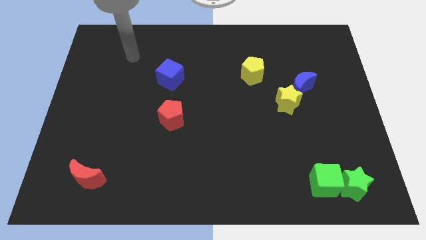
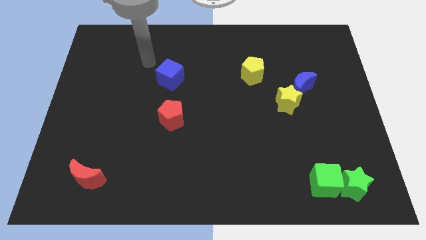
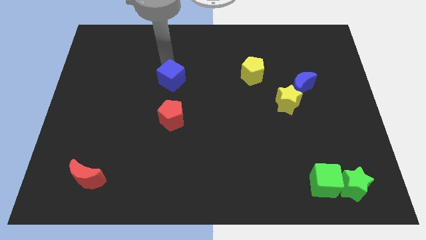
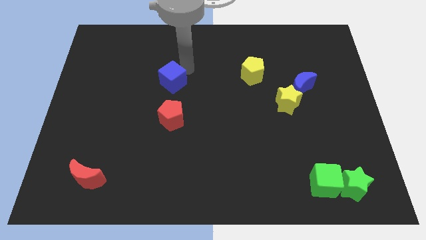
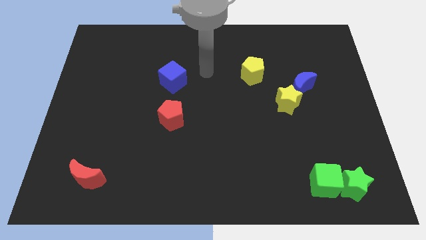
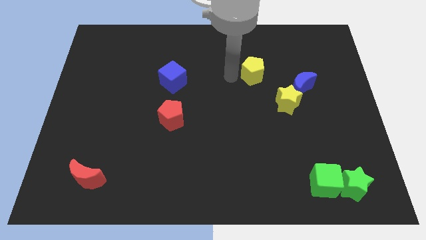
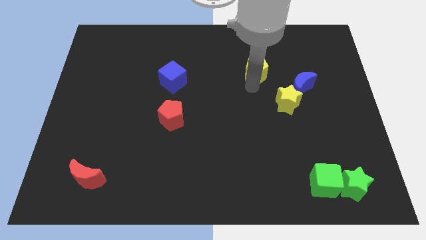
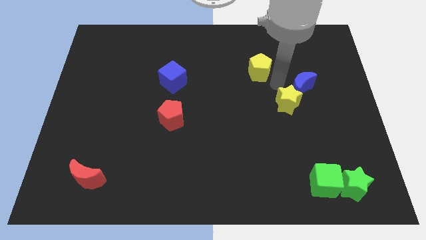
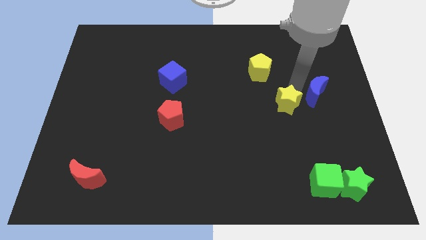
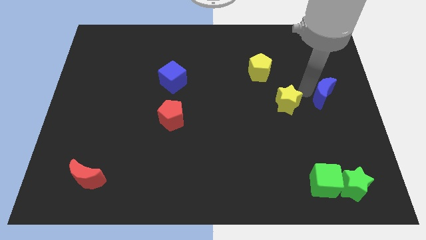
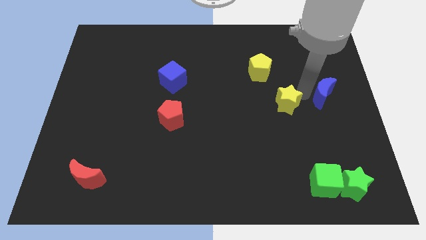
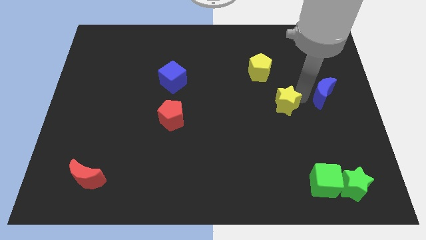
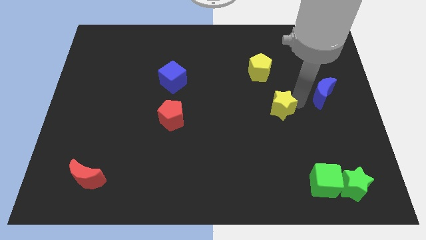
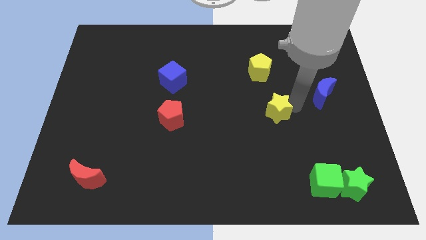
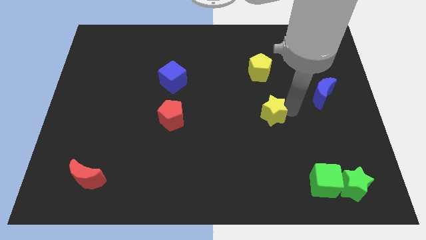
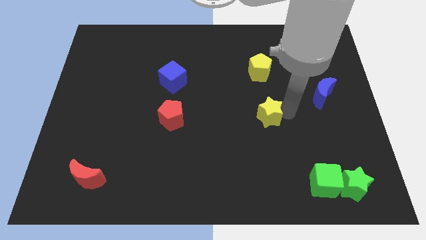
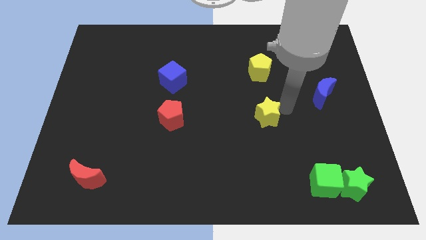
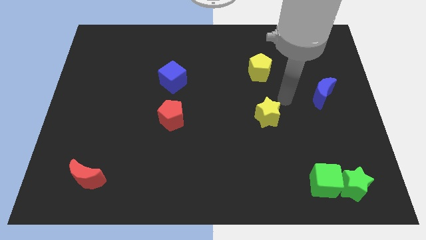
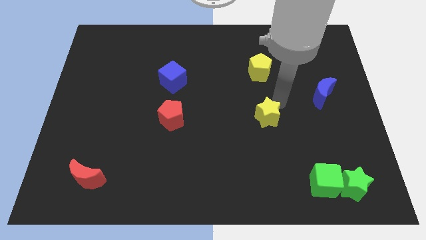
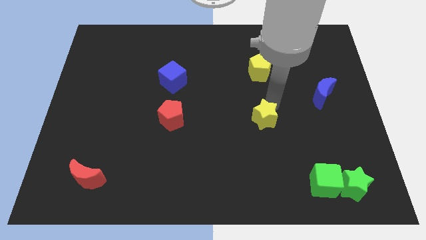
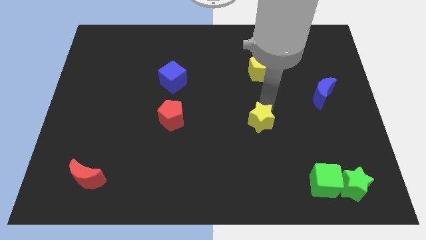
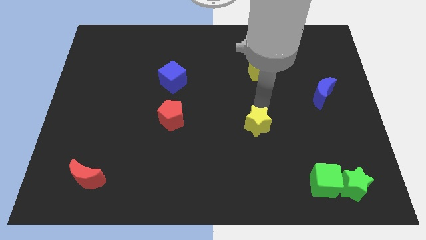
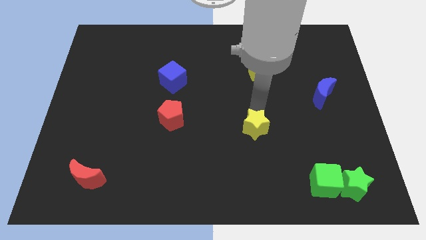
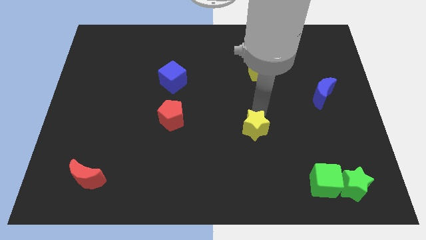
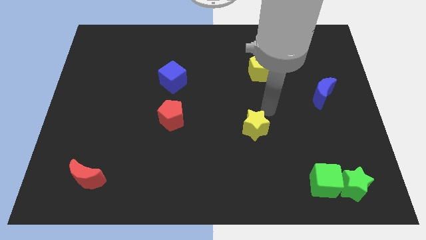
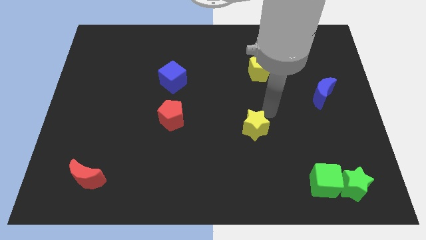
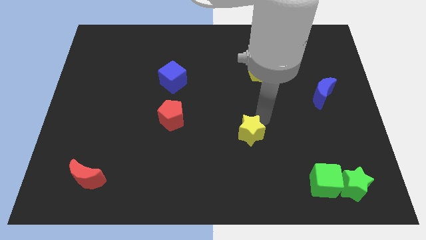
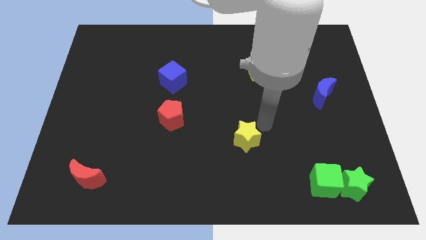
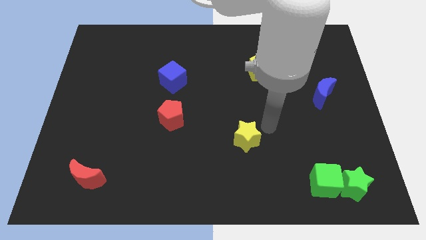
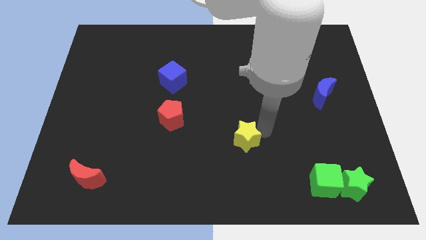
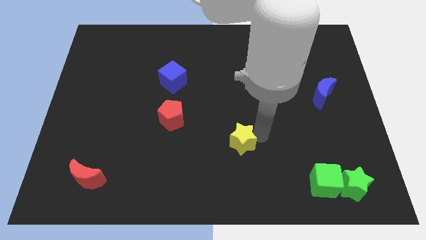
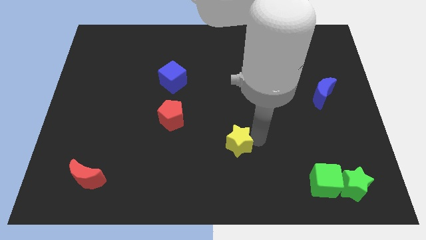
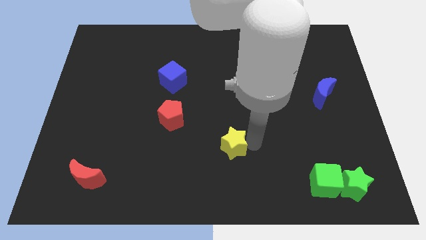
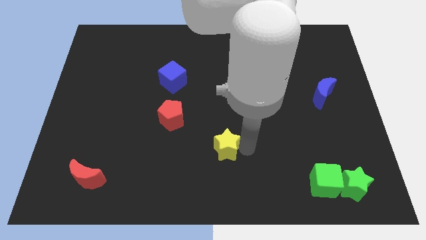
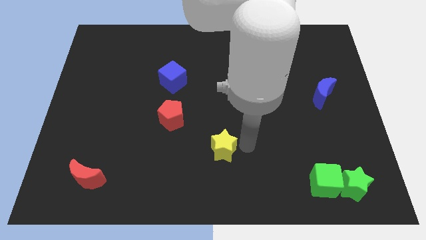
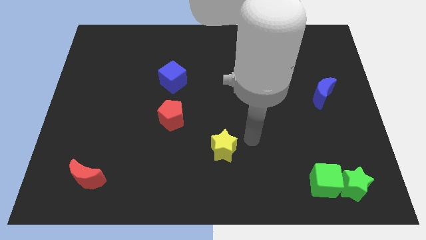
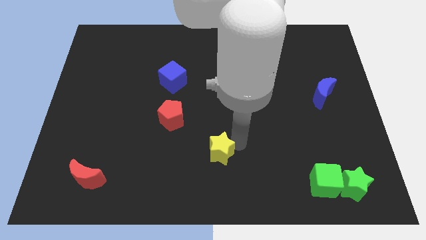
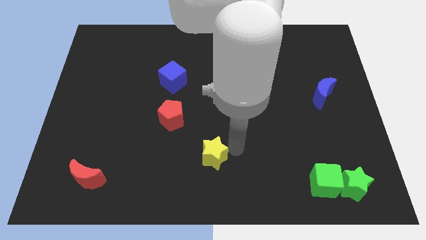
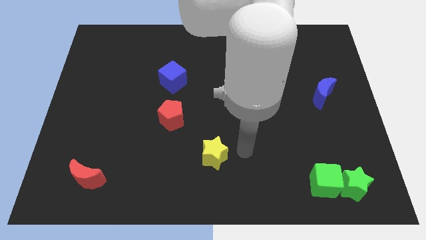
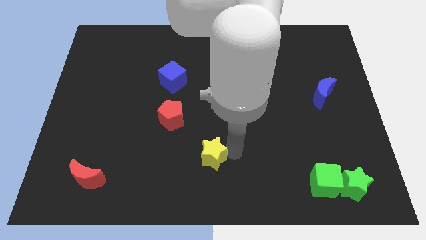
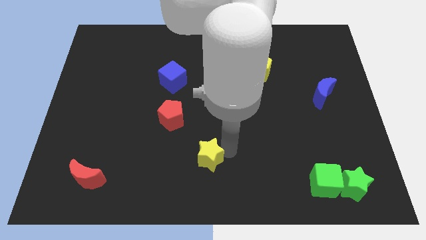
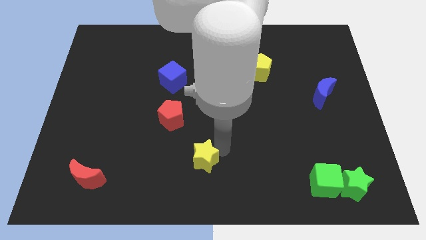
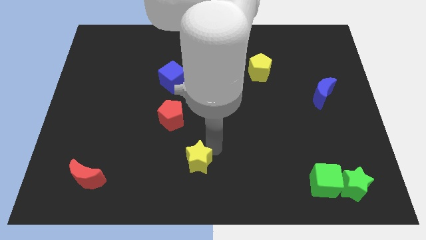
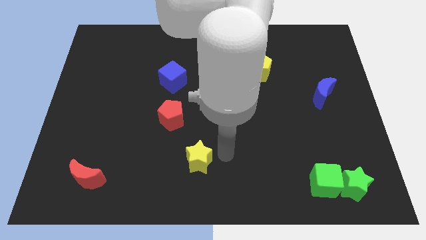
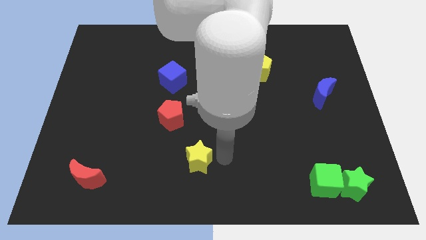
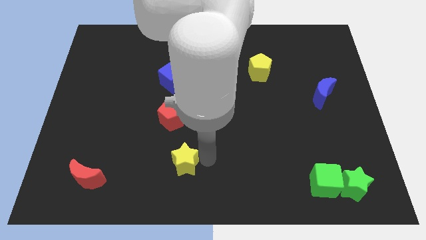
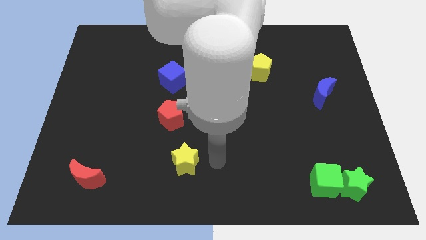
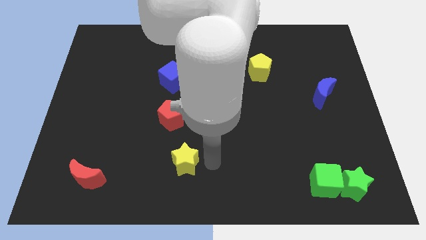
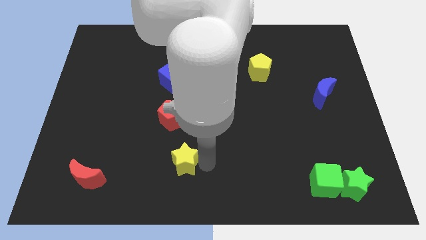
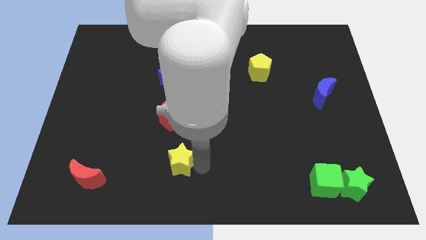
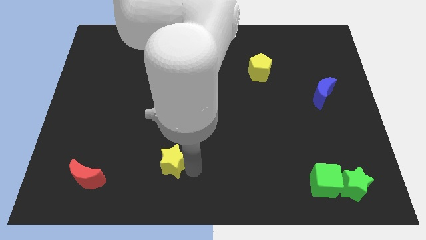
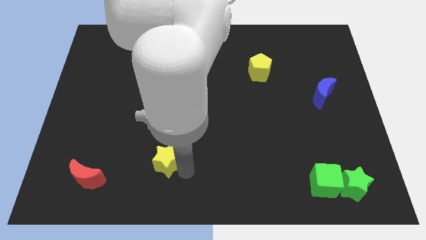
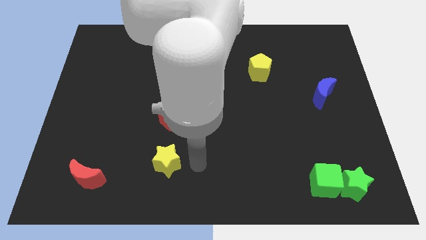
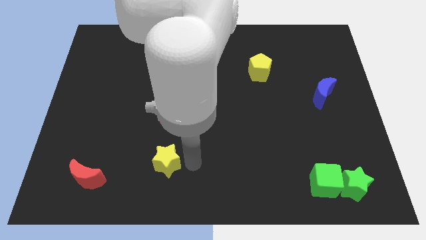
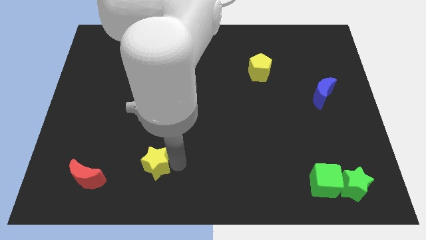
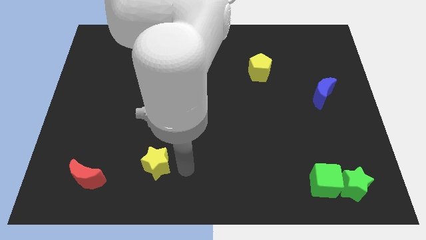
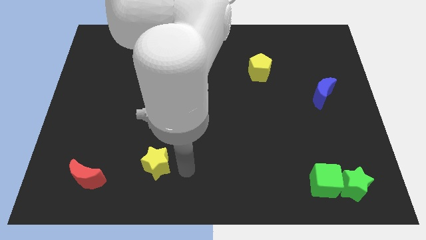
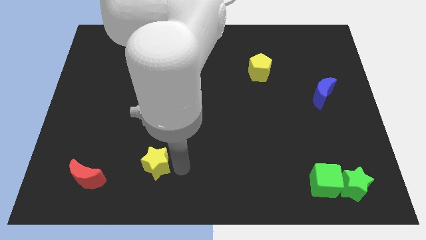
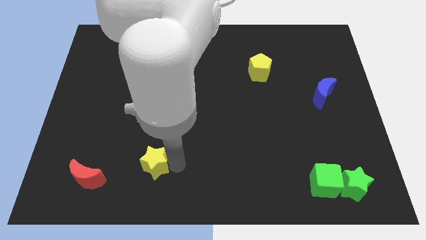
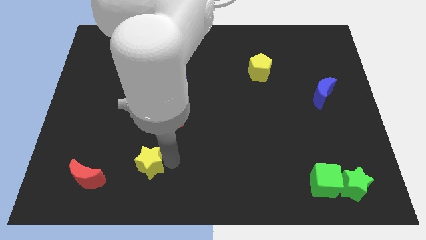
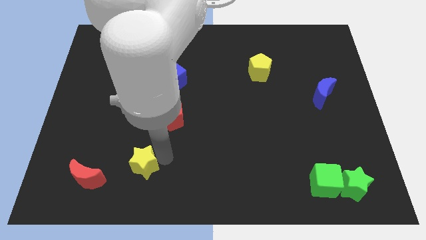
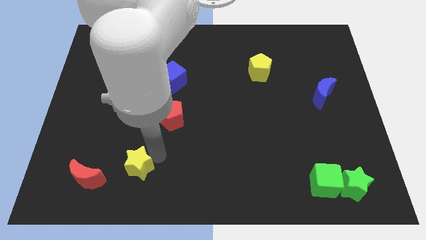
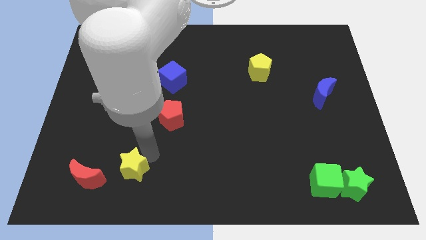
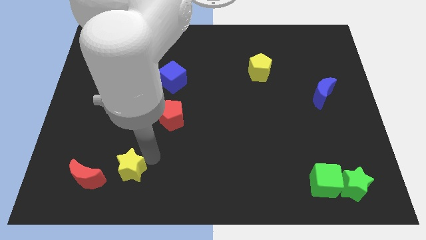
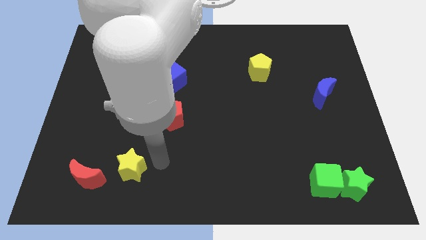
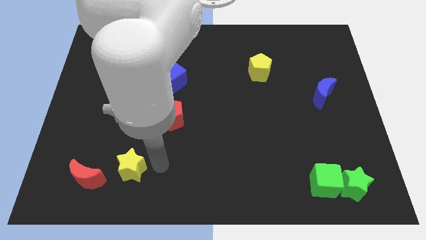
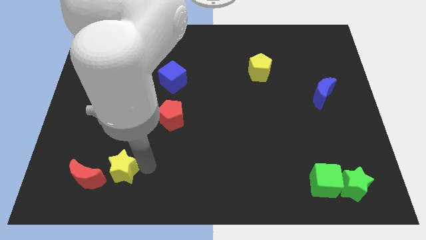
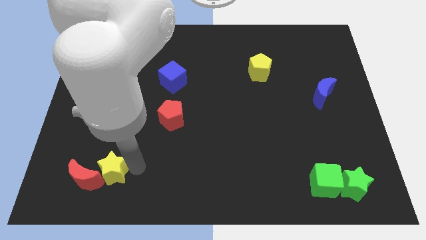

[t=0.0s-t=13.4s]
push the yellow star close to the red moon

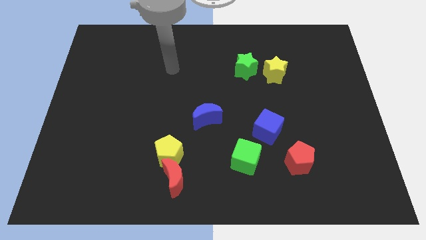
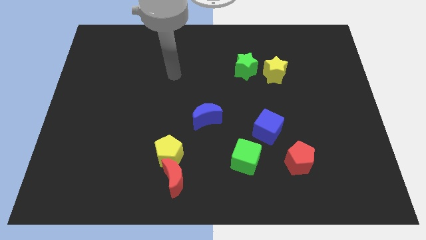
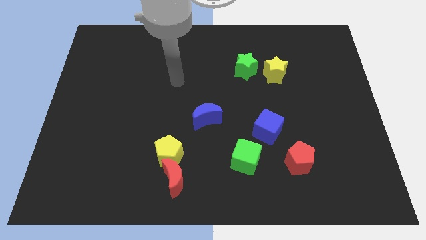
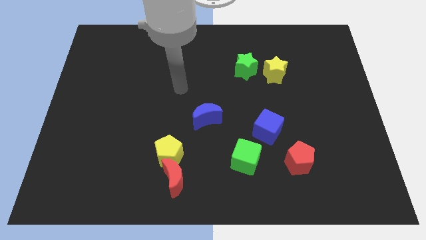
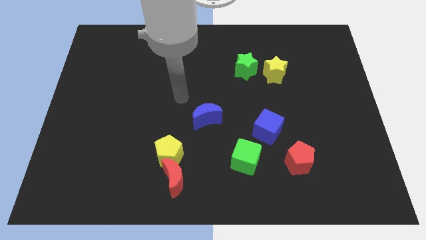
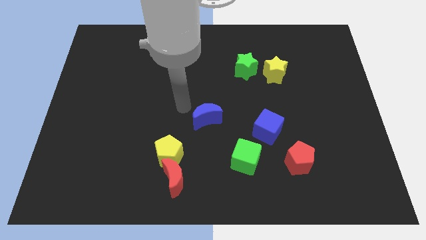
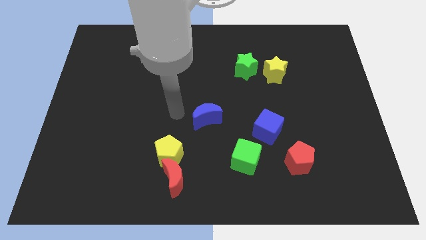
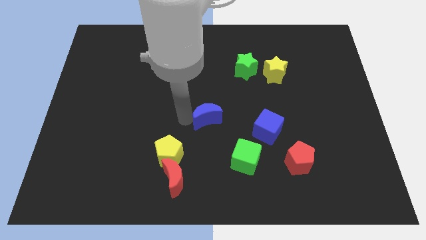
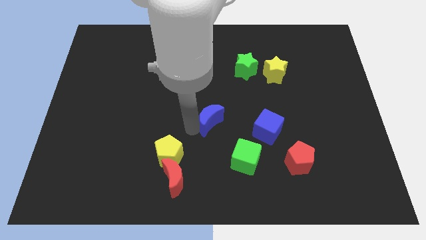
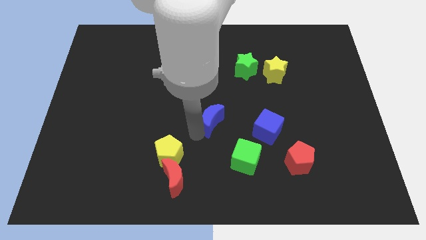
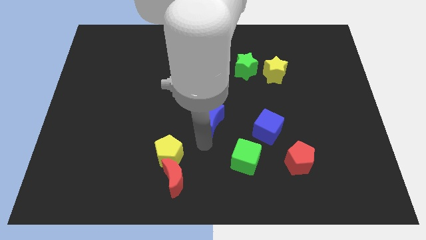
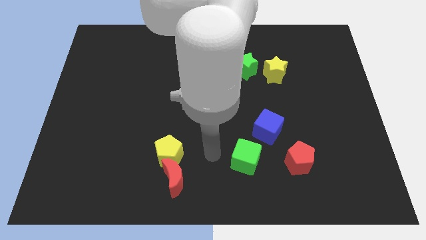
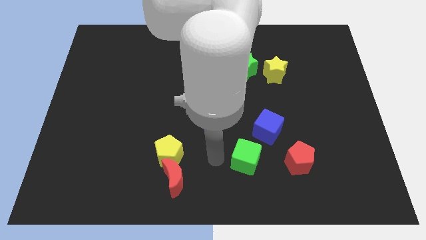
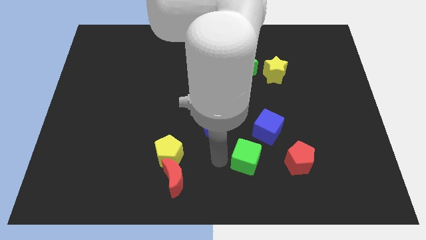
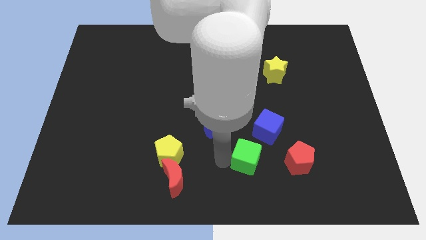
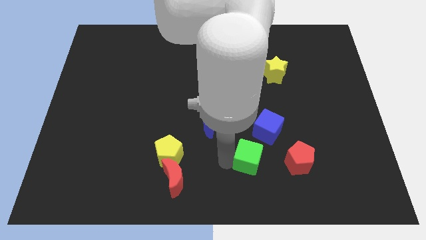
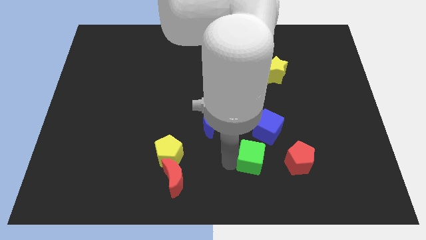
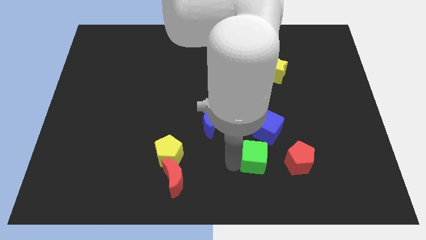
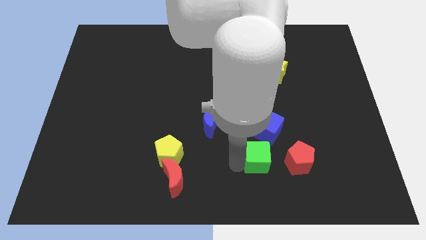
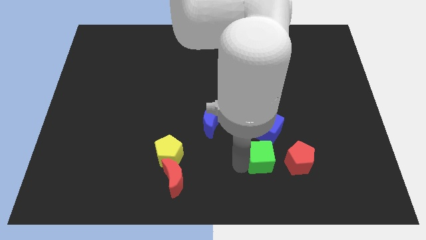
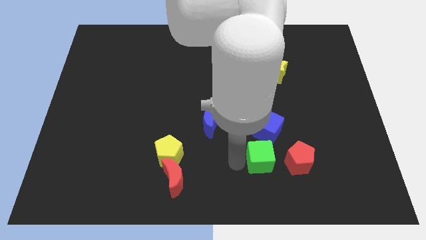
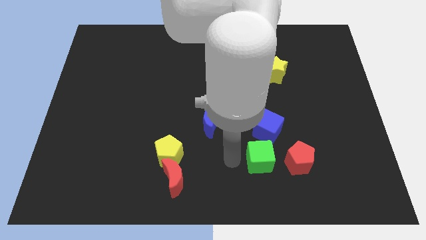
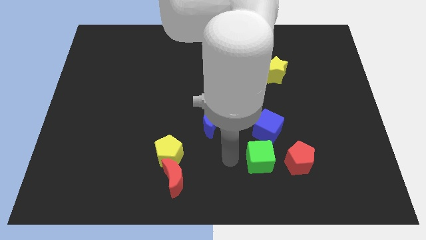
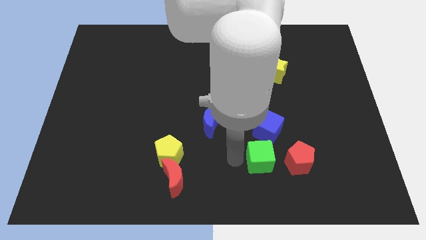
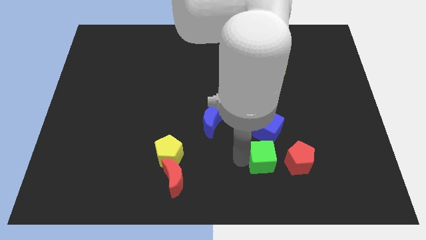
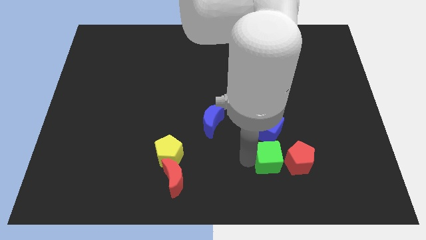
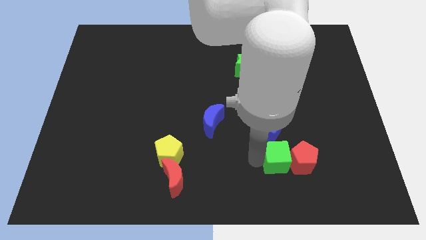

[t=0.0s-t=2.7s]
push the green cube towards the red pentagon
